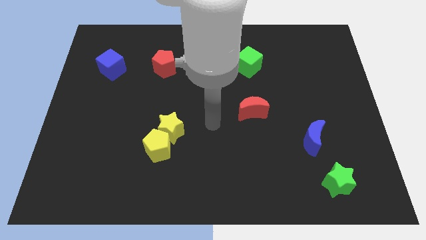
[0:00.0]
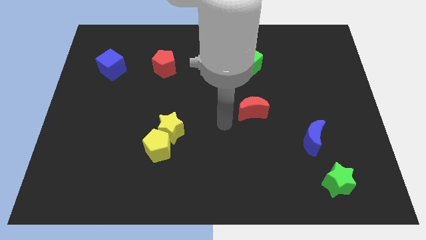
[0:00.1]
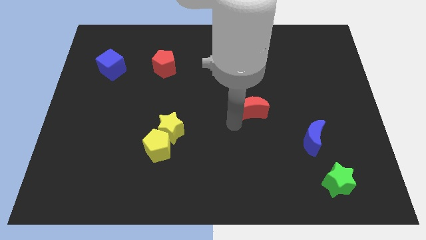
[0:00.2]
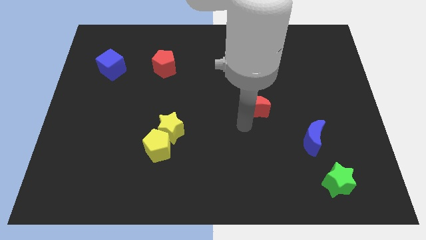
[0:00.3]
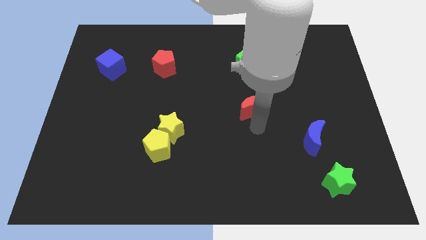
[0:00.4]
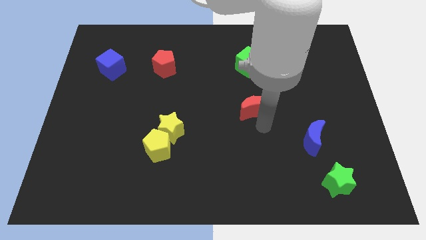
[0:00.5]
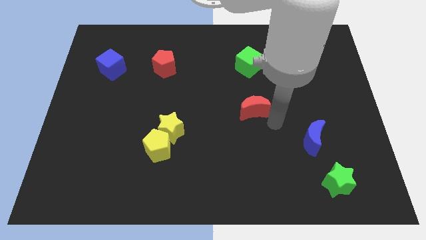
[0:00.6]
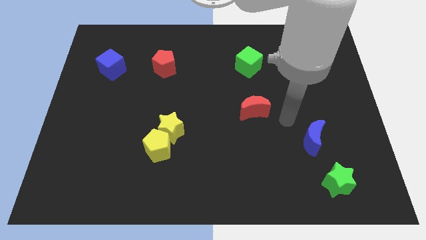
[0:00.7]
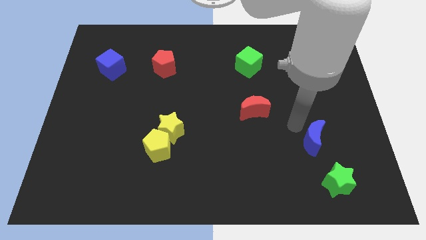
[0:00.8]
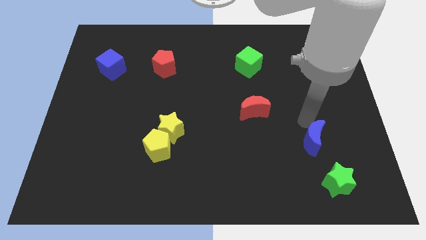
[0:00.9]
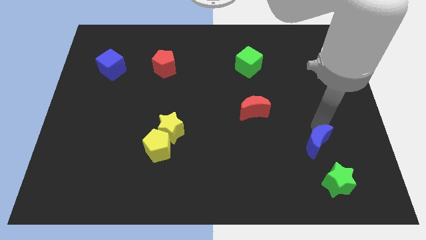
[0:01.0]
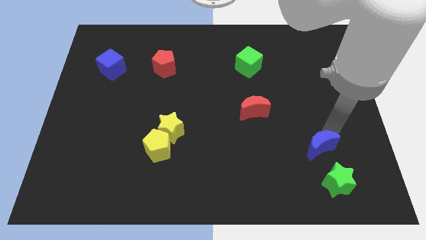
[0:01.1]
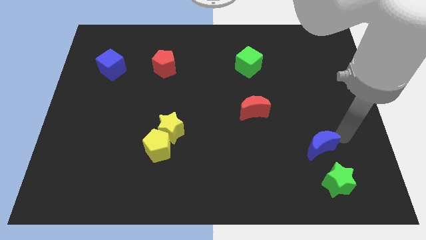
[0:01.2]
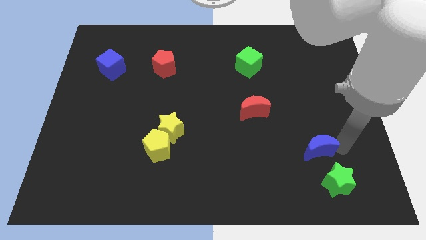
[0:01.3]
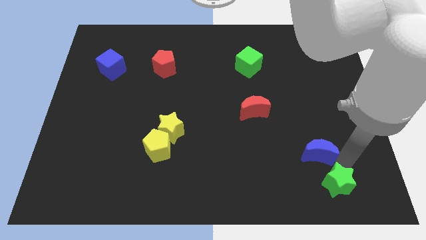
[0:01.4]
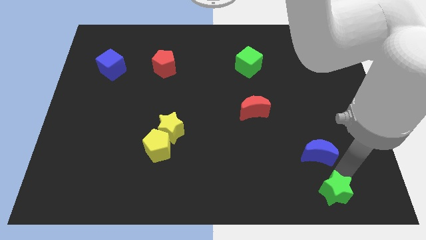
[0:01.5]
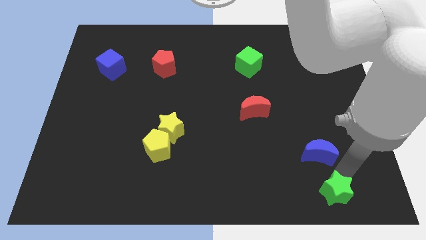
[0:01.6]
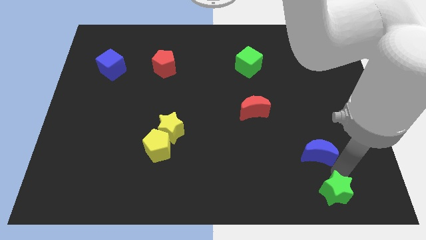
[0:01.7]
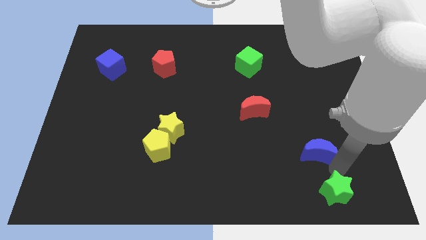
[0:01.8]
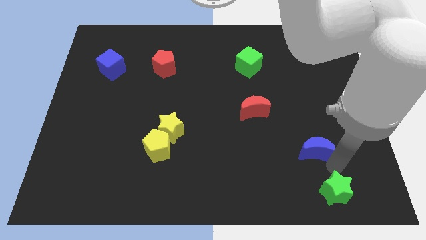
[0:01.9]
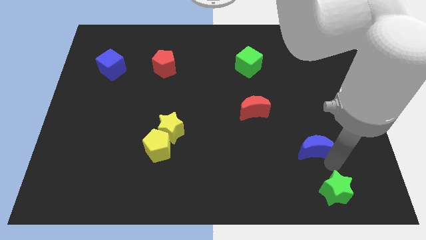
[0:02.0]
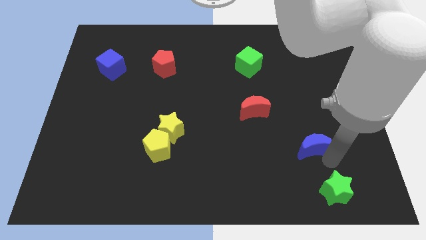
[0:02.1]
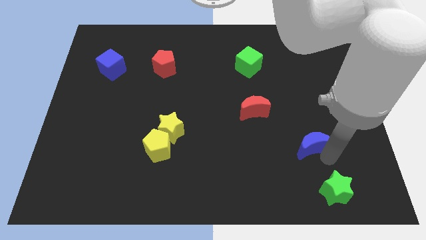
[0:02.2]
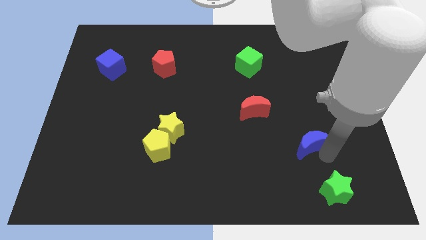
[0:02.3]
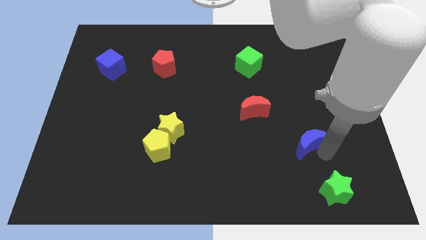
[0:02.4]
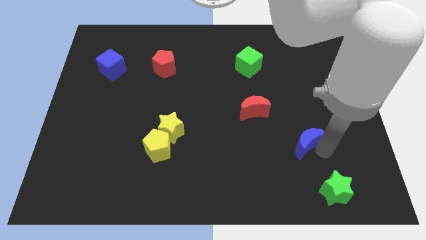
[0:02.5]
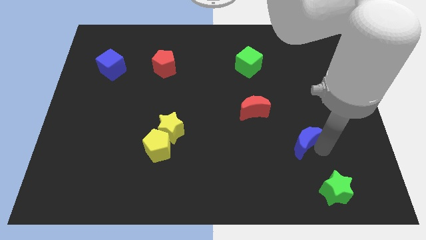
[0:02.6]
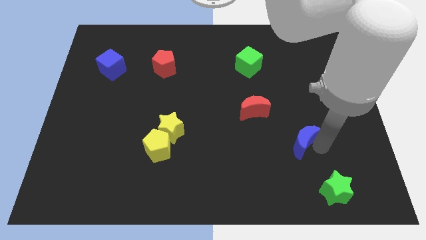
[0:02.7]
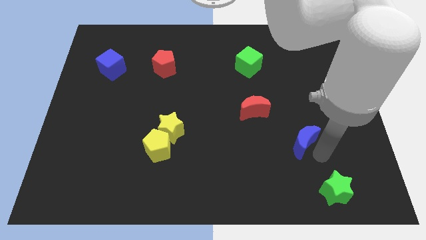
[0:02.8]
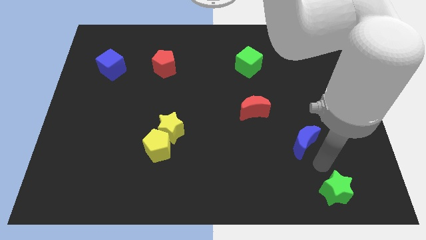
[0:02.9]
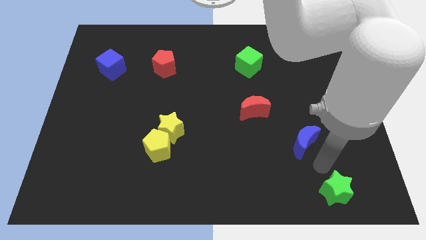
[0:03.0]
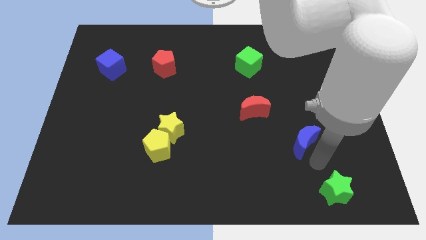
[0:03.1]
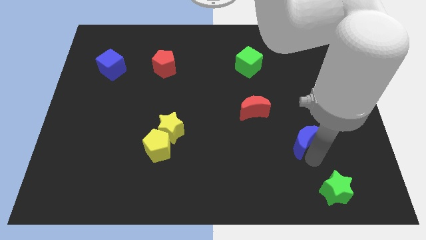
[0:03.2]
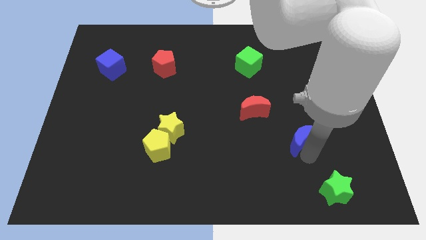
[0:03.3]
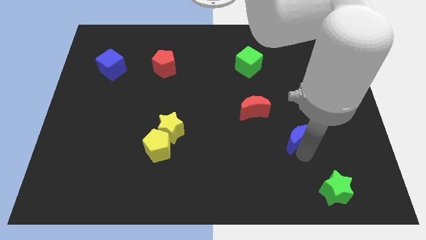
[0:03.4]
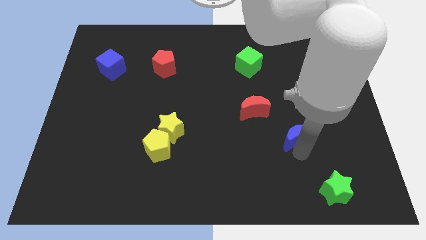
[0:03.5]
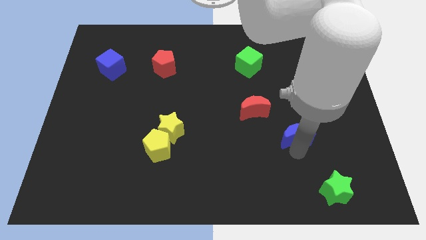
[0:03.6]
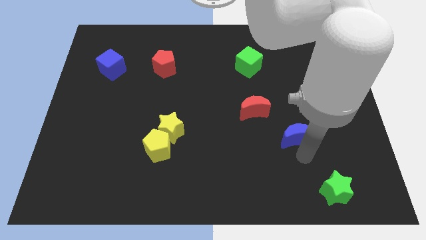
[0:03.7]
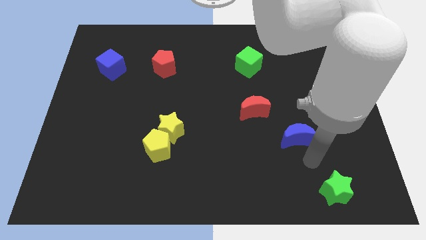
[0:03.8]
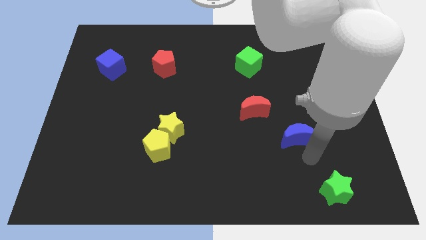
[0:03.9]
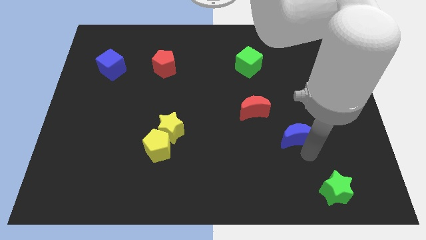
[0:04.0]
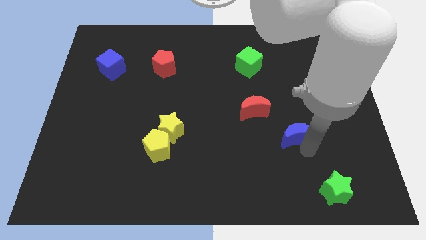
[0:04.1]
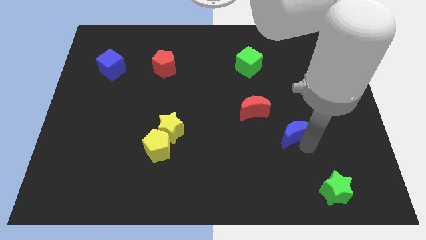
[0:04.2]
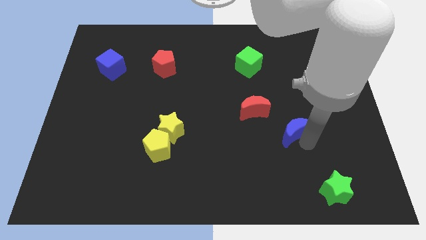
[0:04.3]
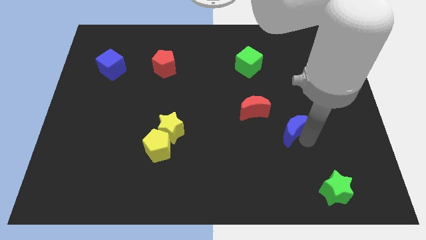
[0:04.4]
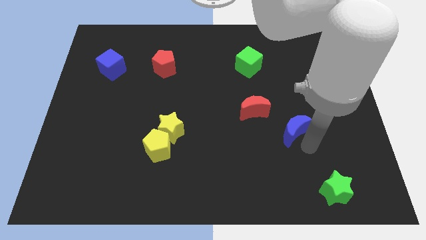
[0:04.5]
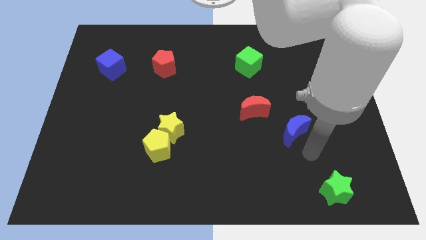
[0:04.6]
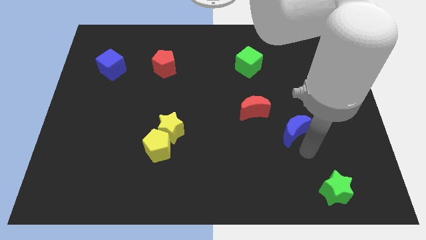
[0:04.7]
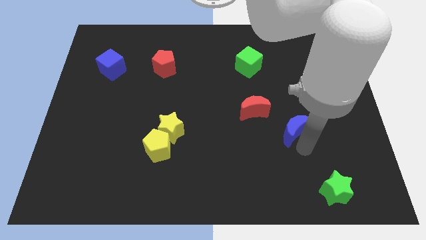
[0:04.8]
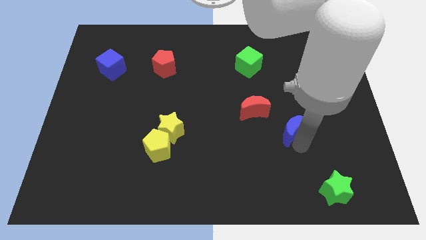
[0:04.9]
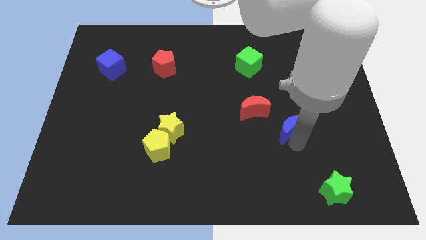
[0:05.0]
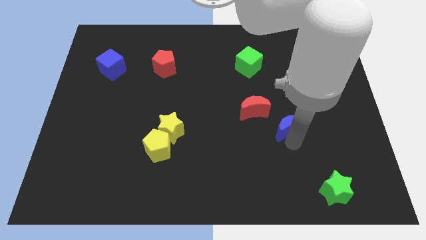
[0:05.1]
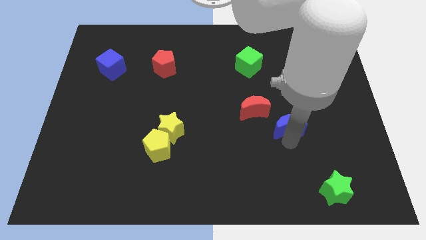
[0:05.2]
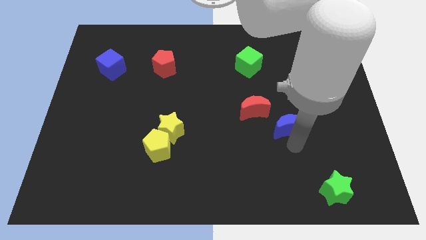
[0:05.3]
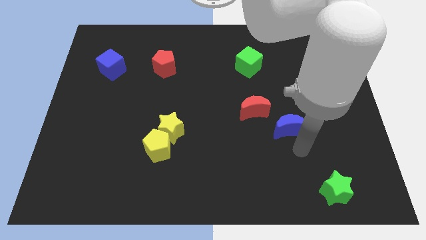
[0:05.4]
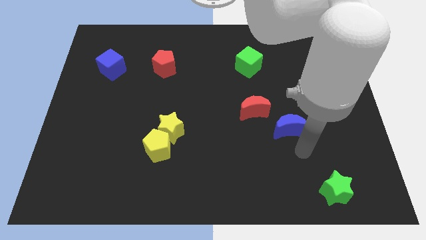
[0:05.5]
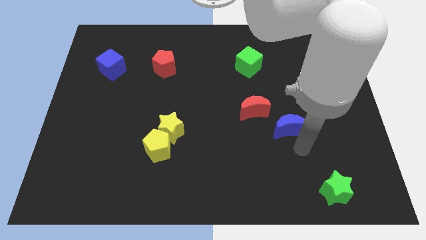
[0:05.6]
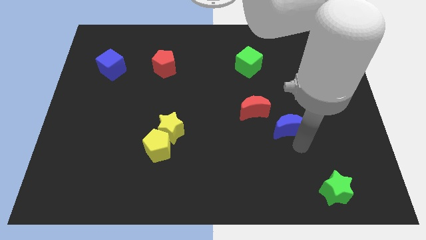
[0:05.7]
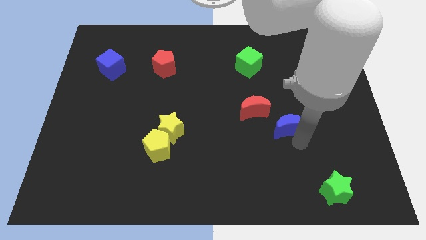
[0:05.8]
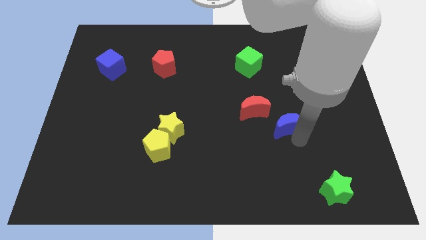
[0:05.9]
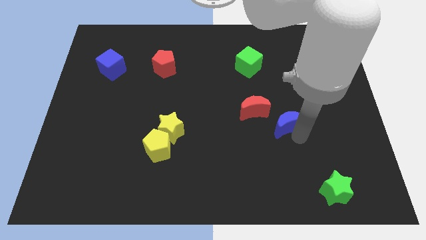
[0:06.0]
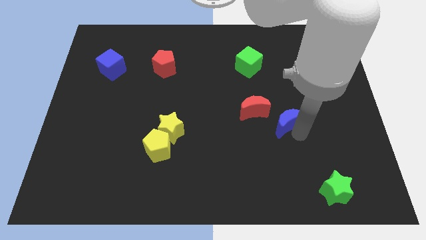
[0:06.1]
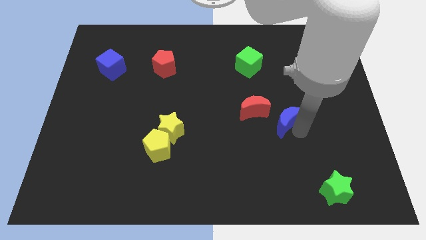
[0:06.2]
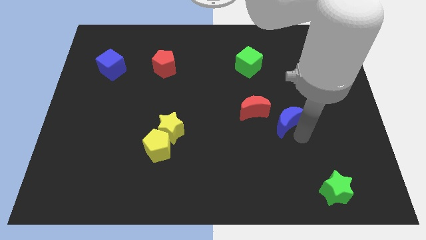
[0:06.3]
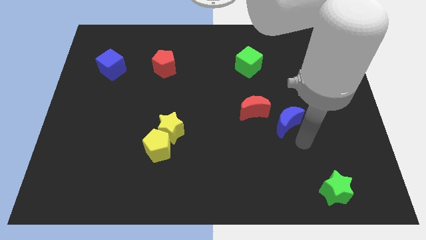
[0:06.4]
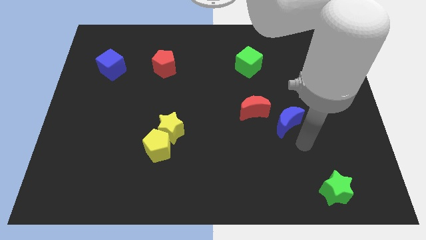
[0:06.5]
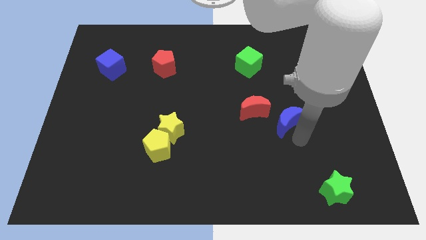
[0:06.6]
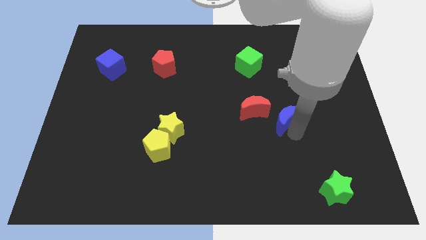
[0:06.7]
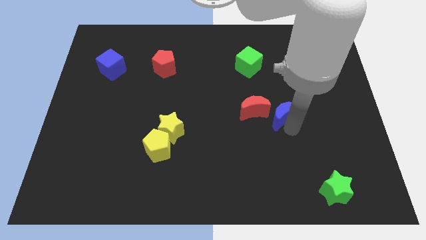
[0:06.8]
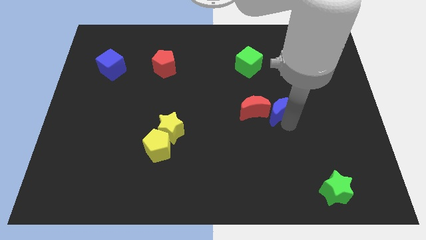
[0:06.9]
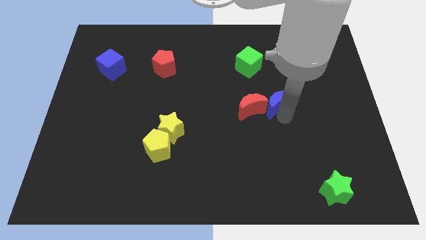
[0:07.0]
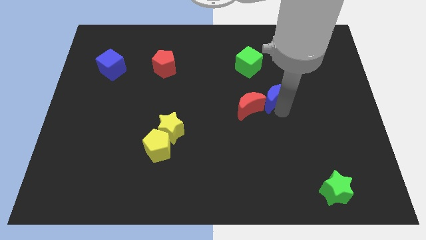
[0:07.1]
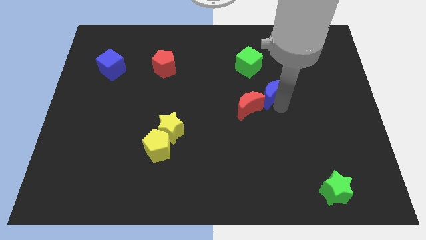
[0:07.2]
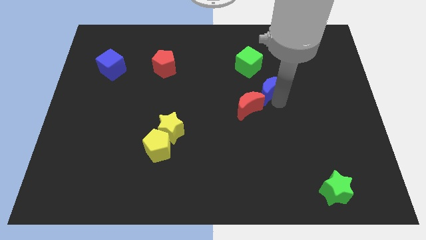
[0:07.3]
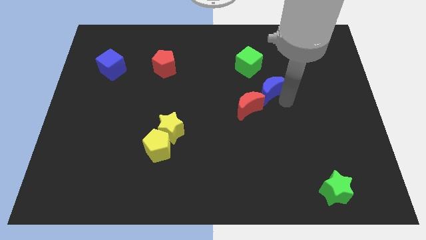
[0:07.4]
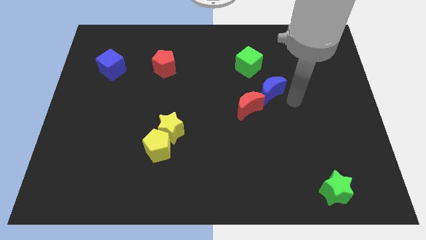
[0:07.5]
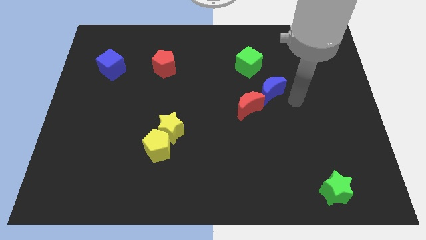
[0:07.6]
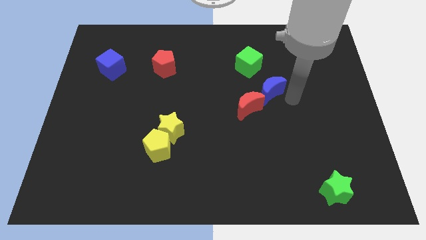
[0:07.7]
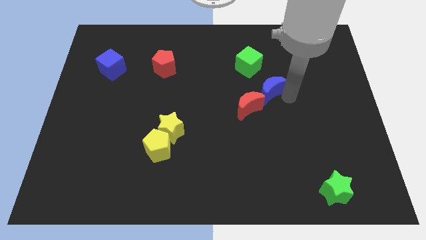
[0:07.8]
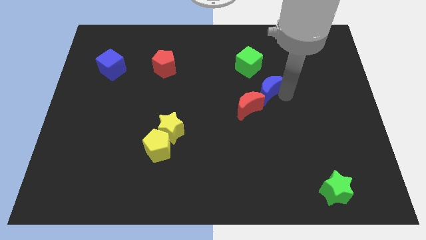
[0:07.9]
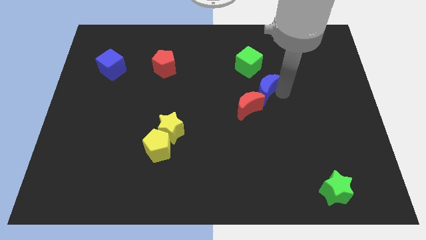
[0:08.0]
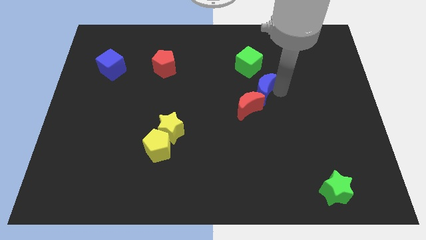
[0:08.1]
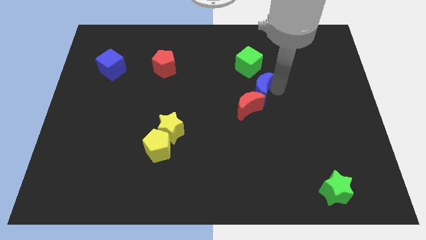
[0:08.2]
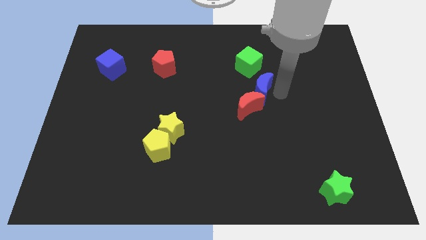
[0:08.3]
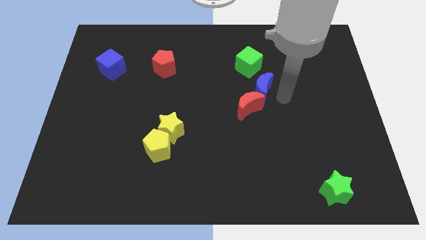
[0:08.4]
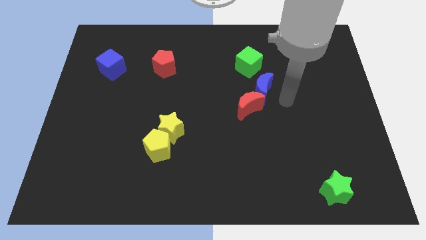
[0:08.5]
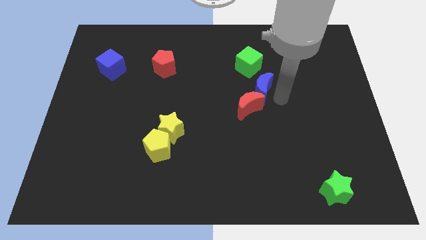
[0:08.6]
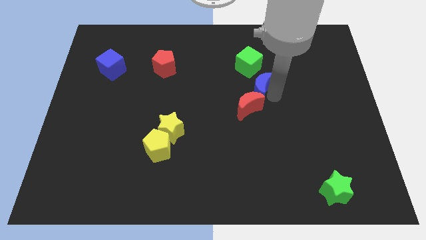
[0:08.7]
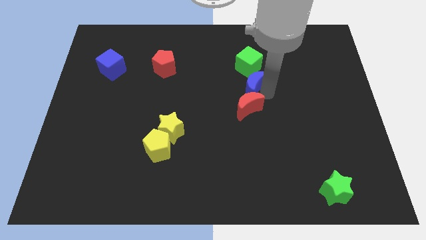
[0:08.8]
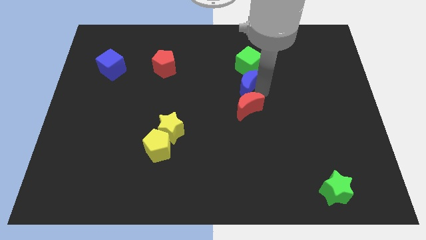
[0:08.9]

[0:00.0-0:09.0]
slide the blue moon upwards and to the left
